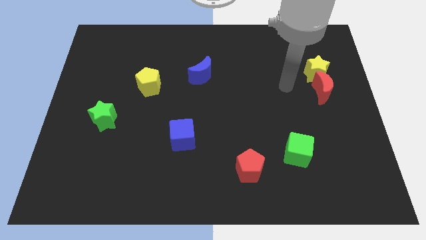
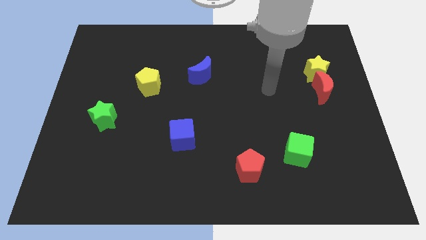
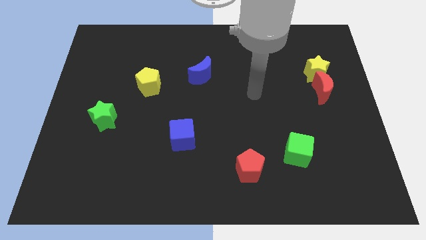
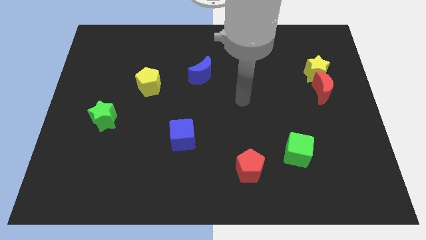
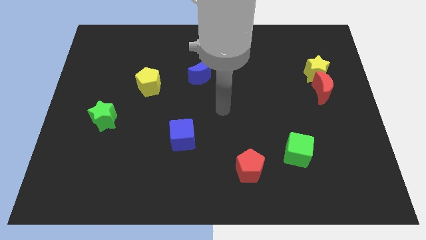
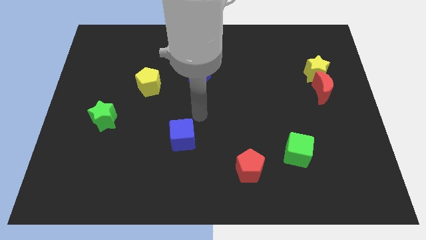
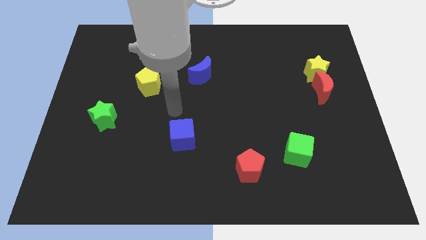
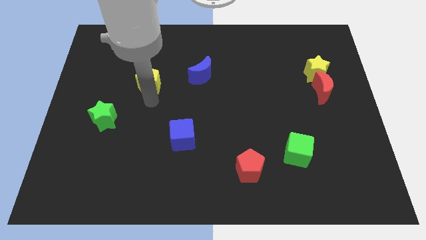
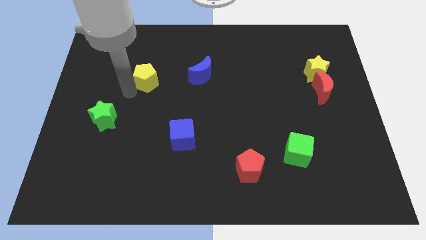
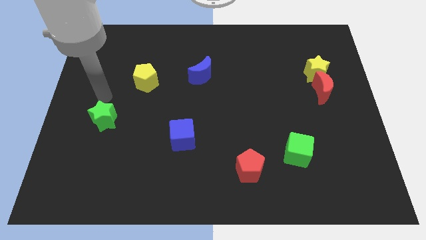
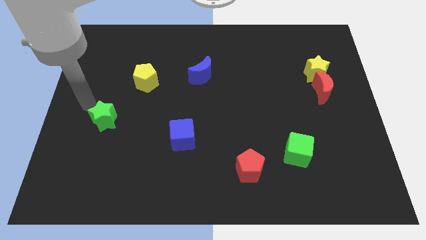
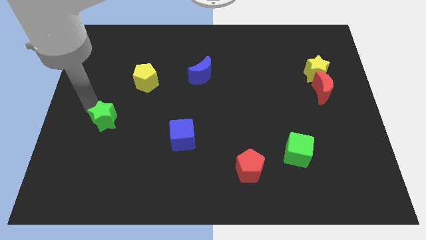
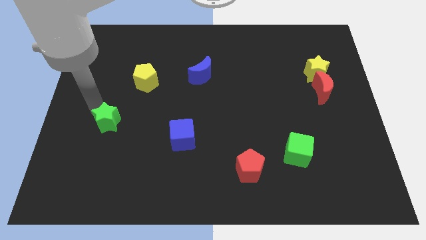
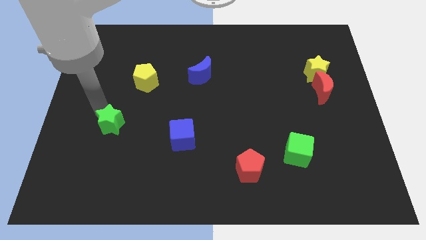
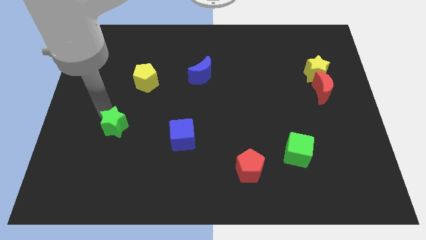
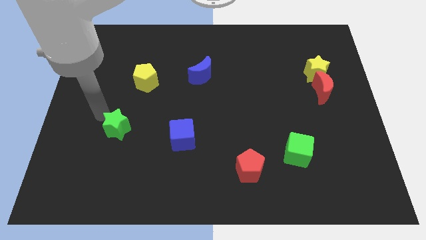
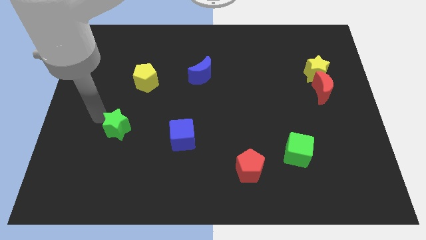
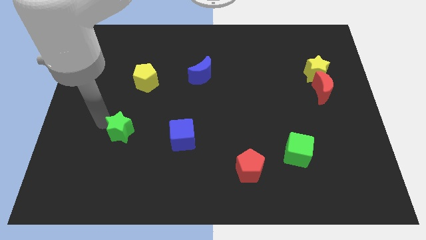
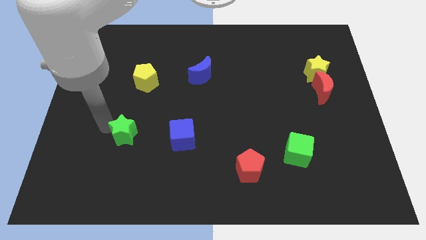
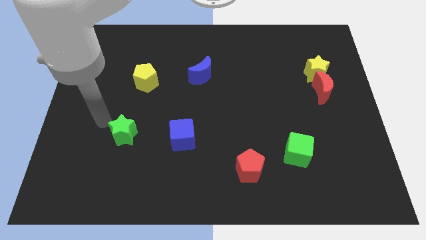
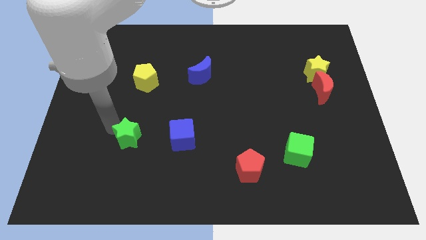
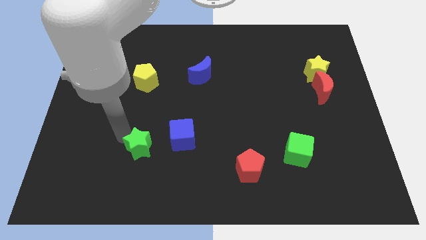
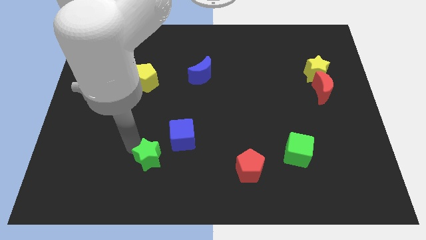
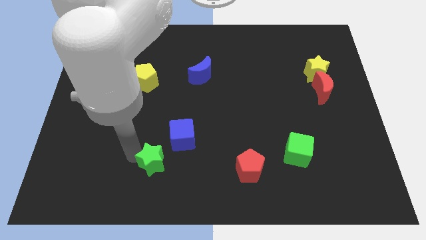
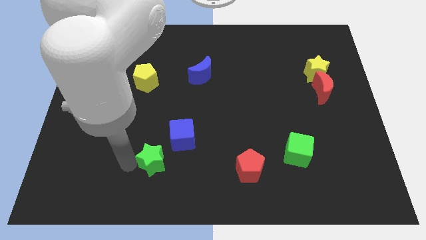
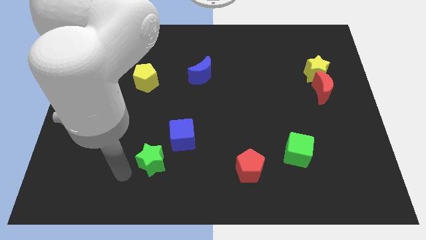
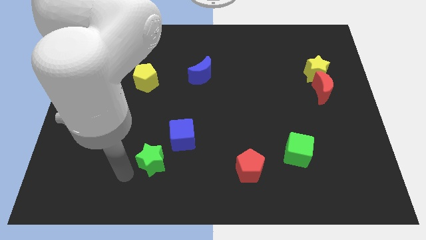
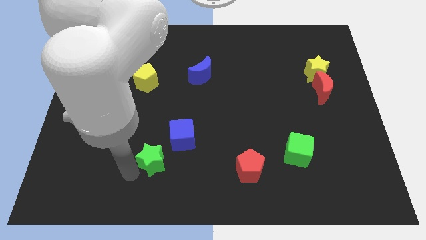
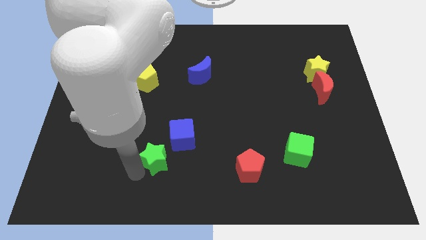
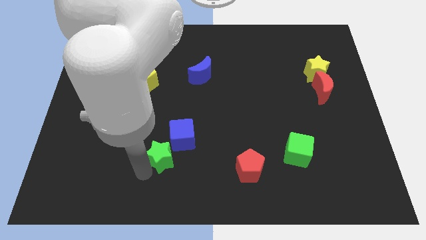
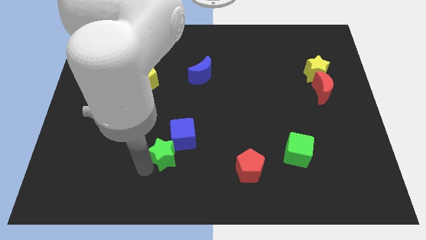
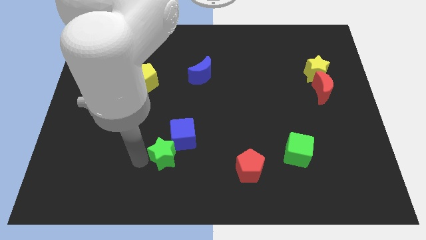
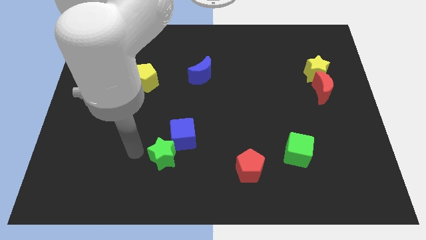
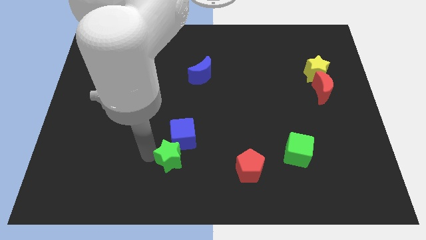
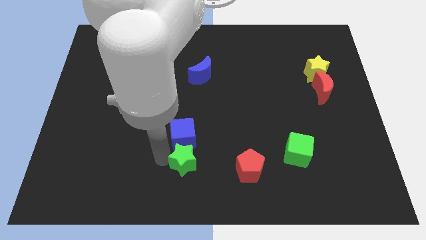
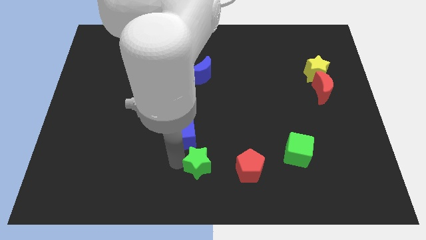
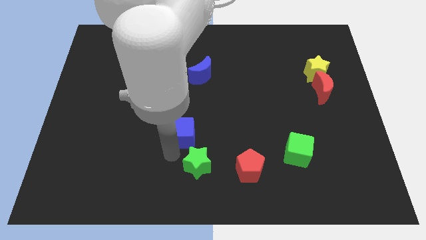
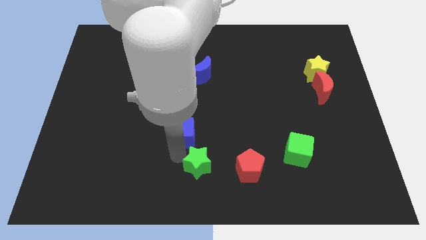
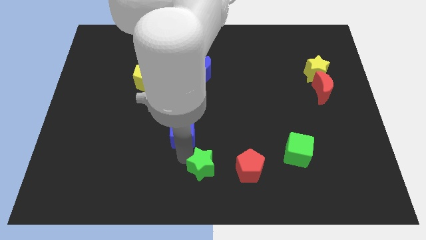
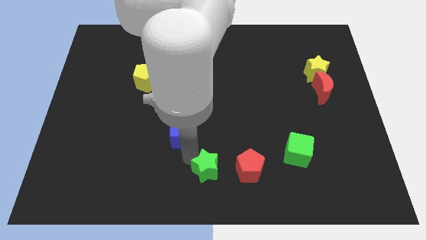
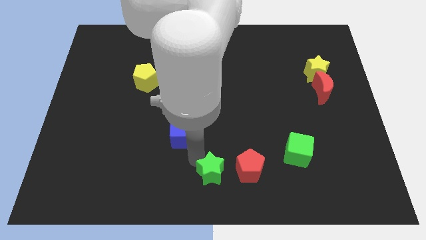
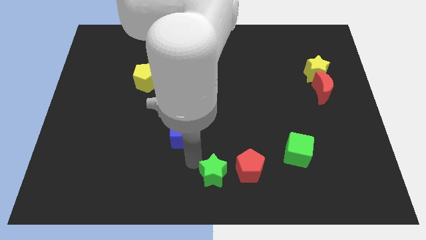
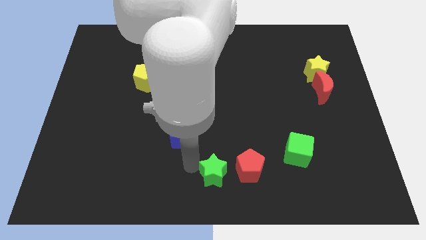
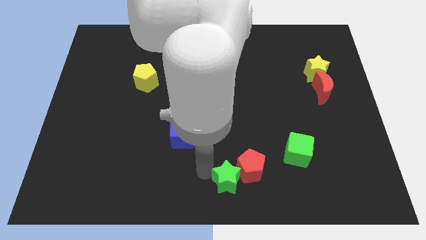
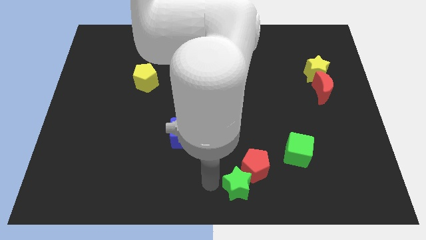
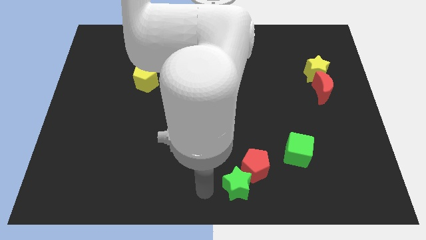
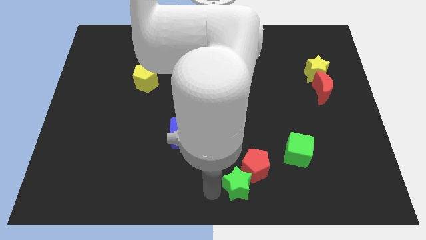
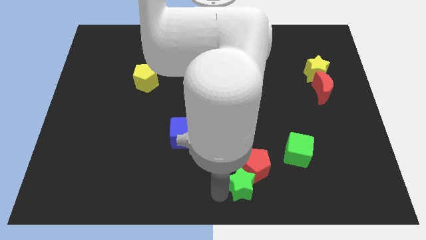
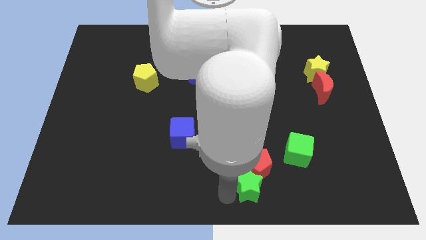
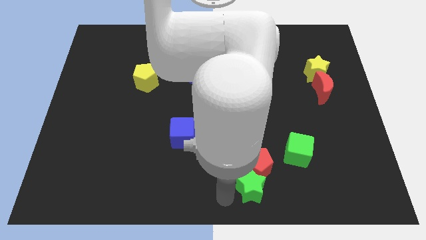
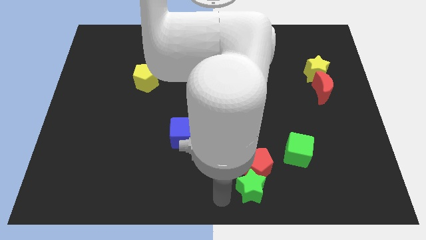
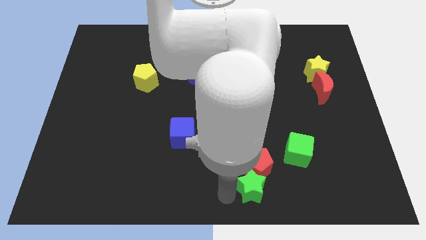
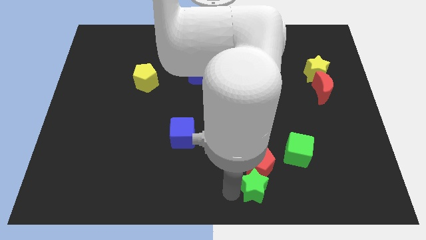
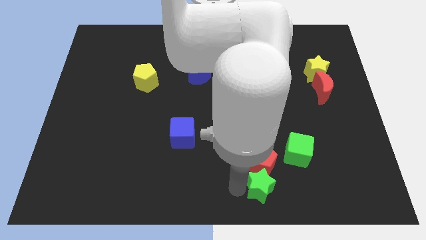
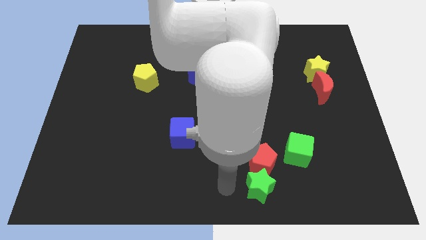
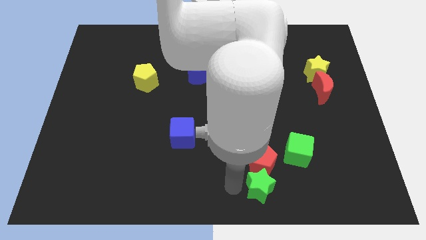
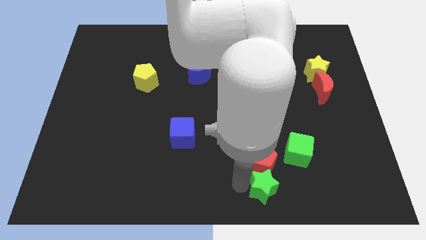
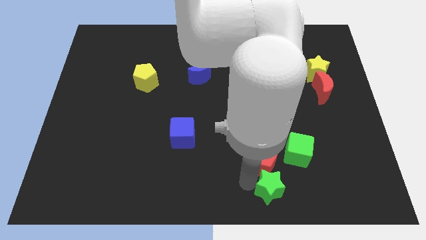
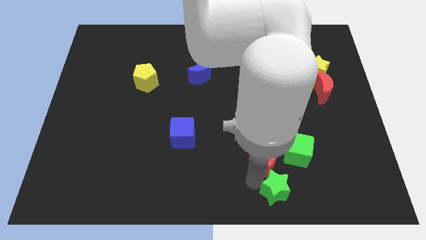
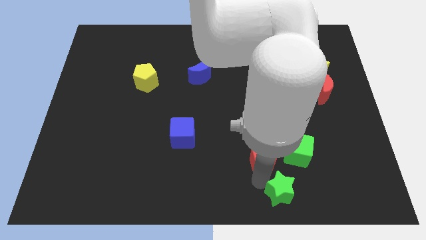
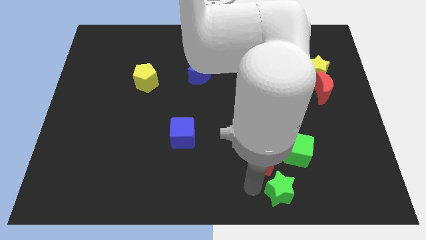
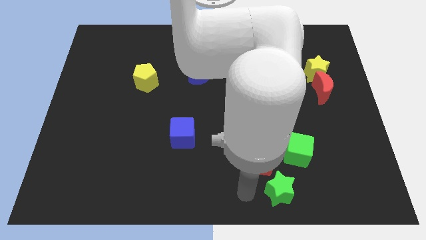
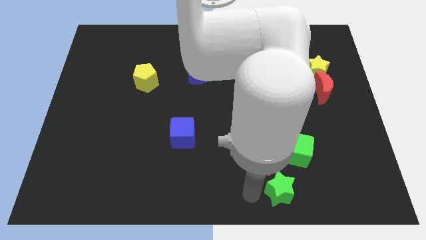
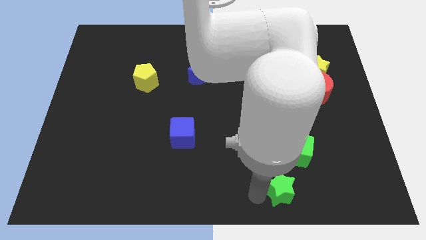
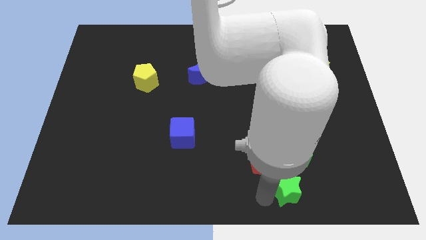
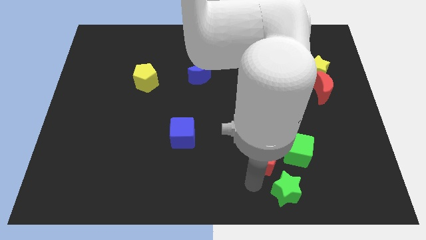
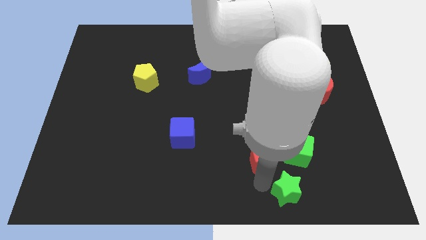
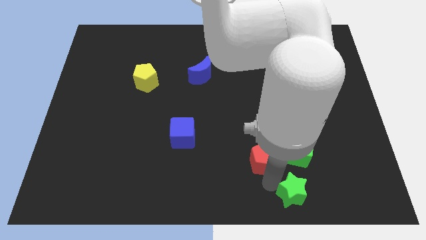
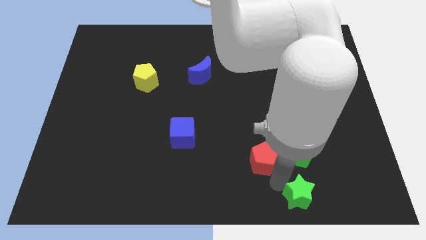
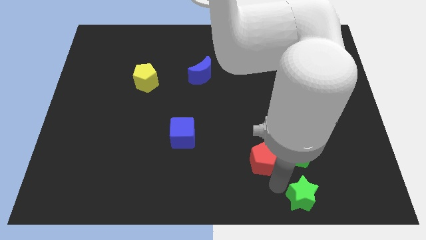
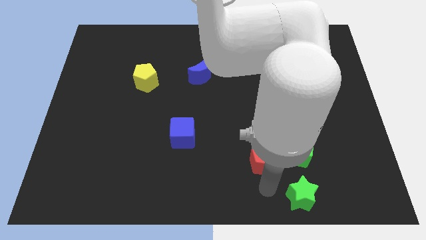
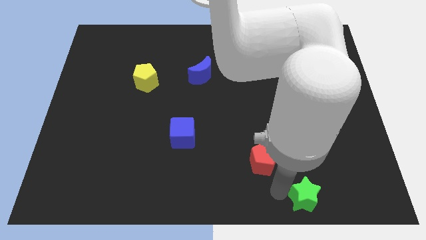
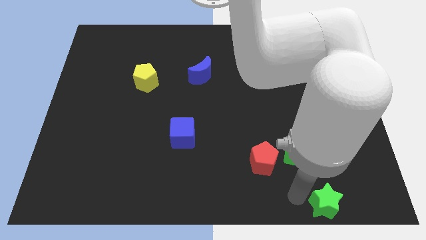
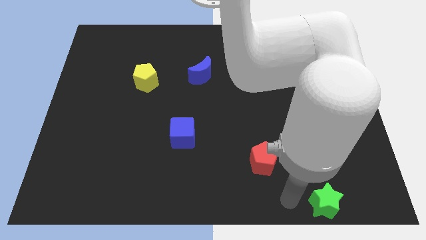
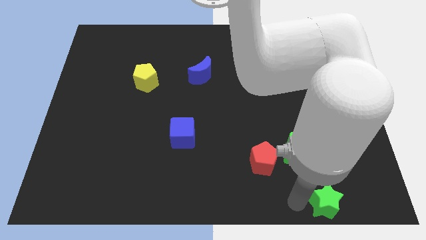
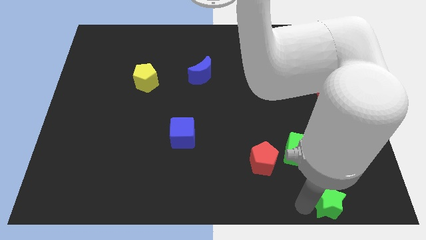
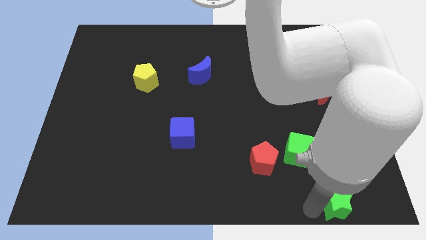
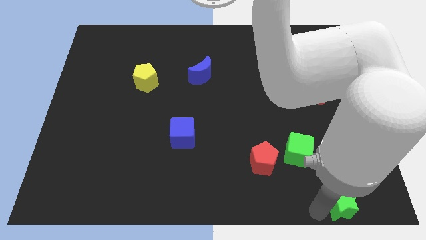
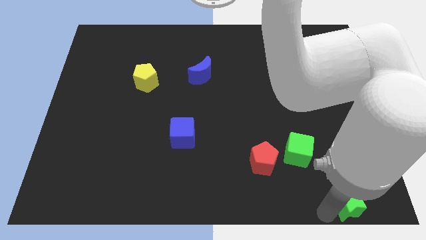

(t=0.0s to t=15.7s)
push the green star to the bottom right
